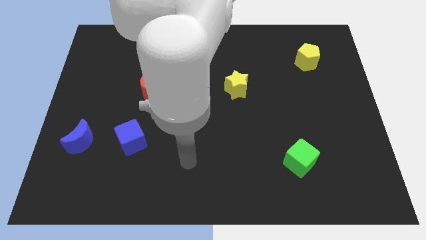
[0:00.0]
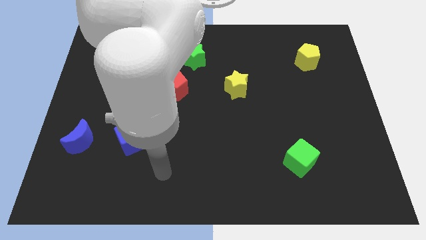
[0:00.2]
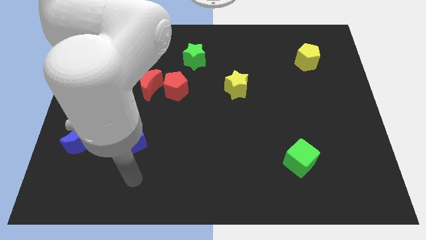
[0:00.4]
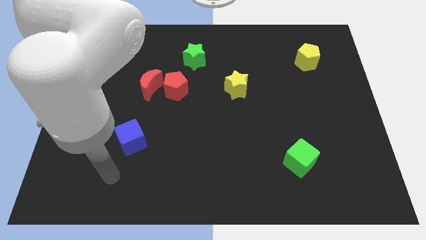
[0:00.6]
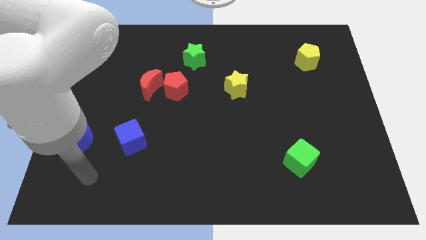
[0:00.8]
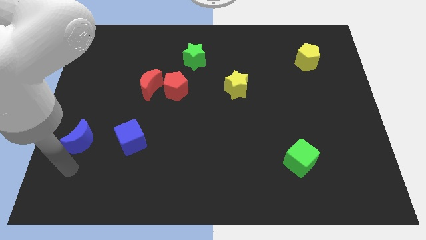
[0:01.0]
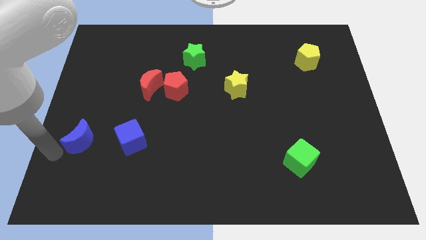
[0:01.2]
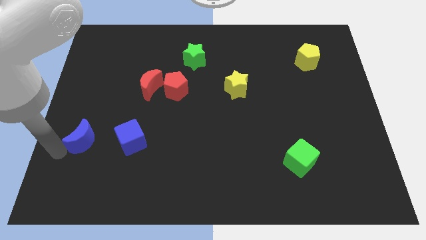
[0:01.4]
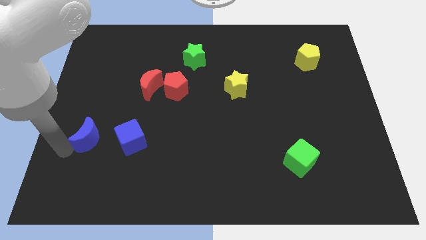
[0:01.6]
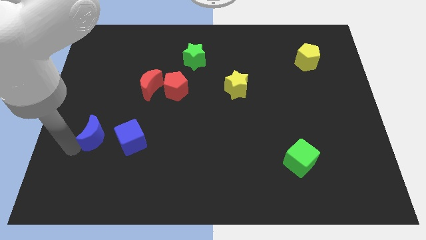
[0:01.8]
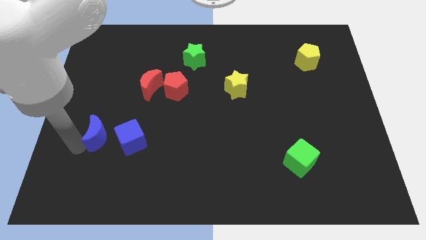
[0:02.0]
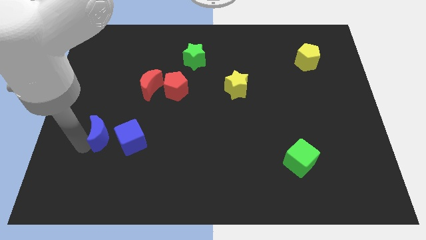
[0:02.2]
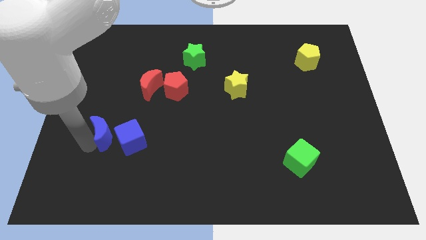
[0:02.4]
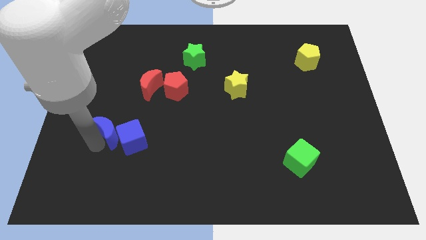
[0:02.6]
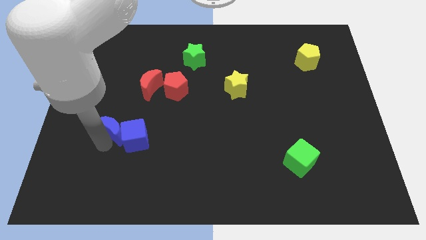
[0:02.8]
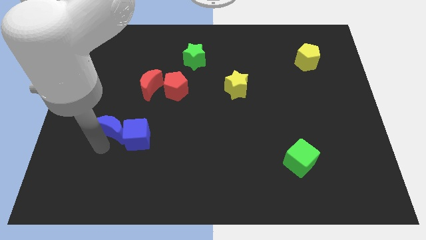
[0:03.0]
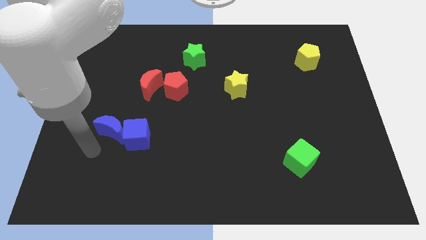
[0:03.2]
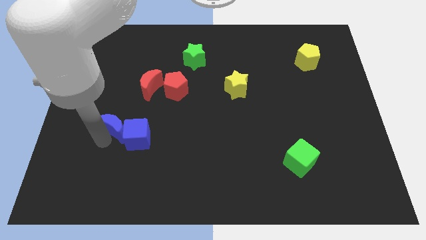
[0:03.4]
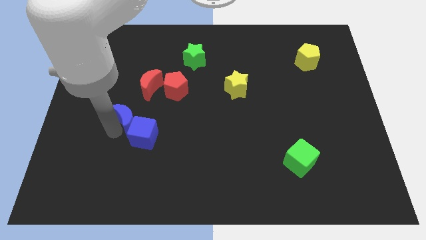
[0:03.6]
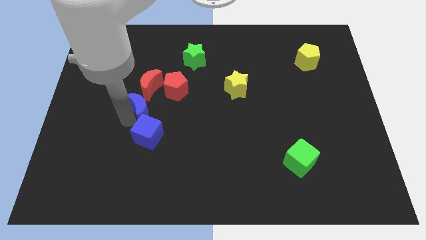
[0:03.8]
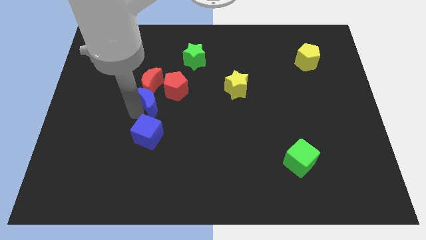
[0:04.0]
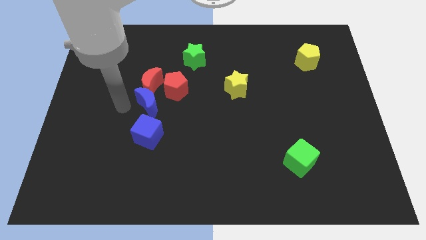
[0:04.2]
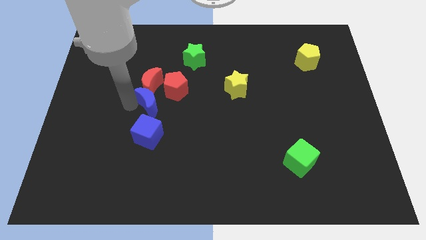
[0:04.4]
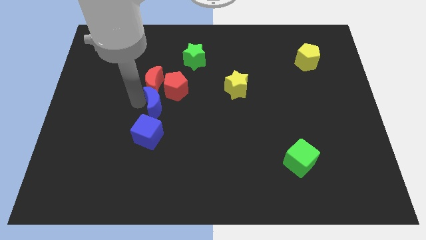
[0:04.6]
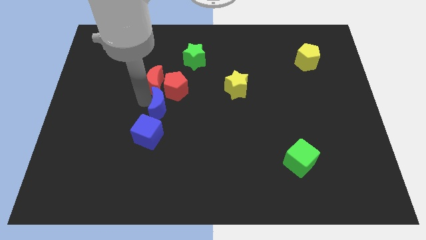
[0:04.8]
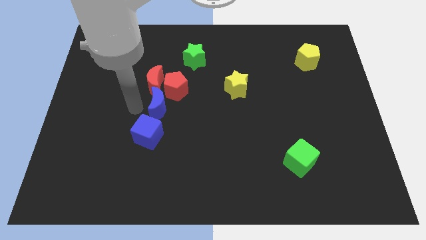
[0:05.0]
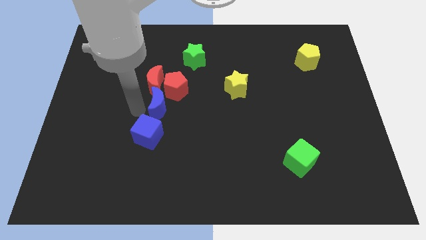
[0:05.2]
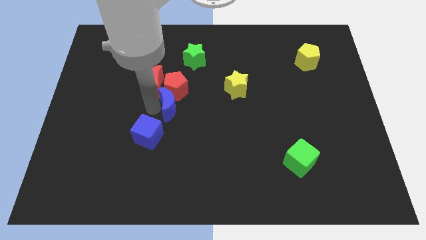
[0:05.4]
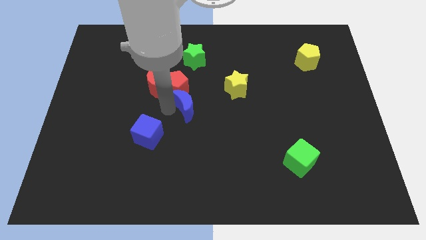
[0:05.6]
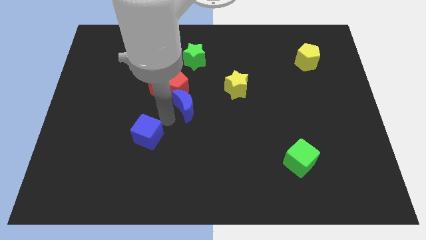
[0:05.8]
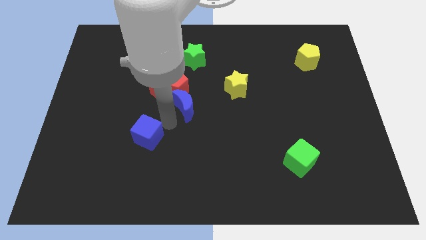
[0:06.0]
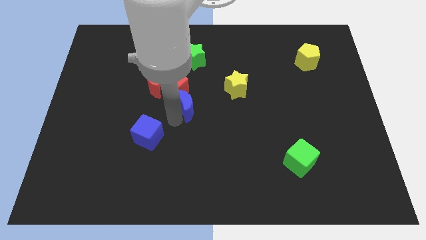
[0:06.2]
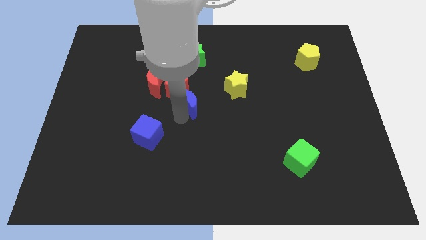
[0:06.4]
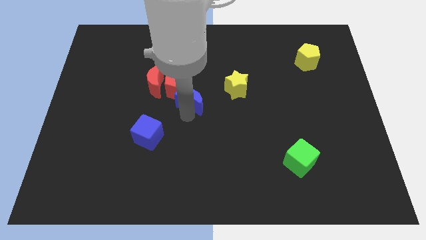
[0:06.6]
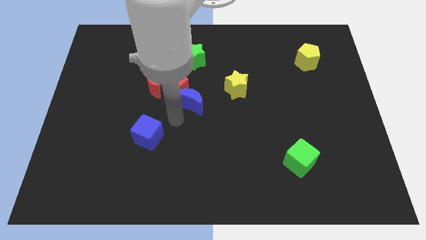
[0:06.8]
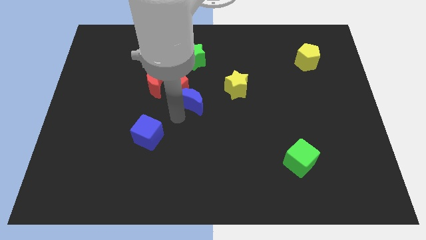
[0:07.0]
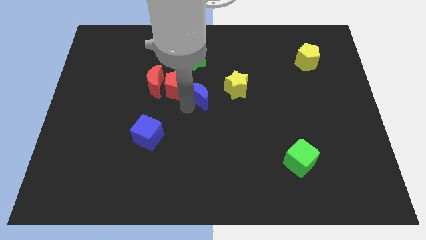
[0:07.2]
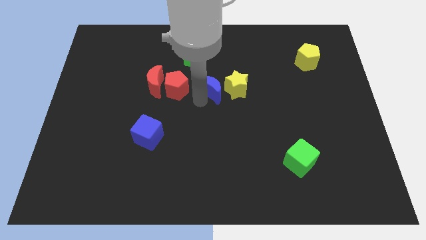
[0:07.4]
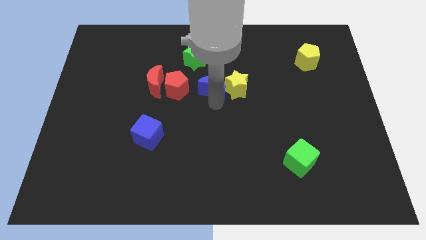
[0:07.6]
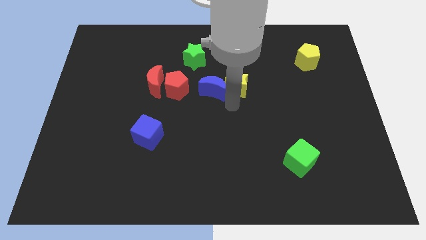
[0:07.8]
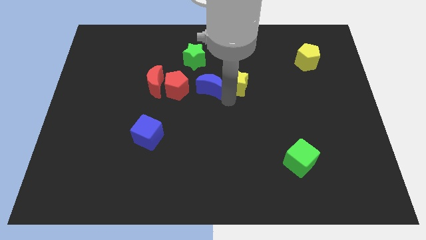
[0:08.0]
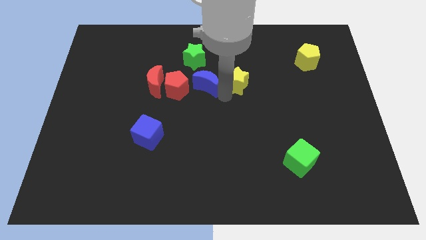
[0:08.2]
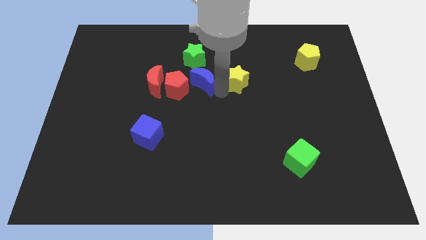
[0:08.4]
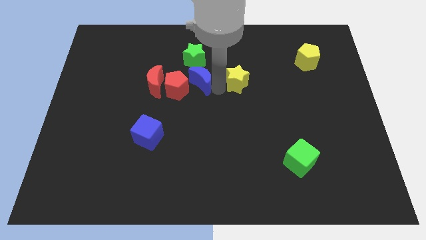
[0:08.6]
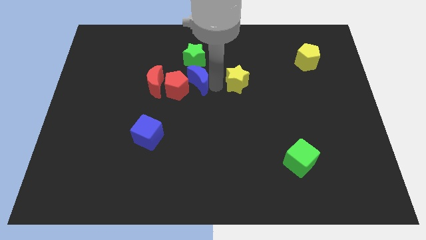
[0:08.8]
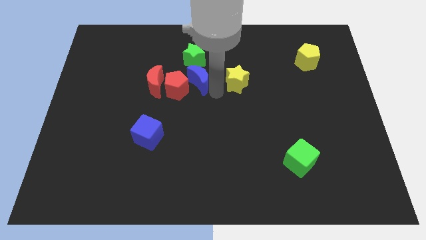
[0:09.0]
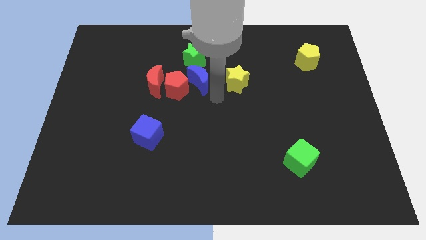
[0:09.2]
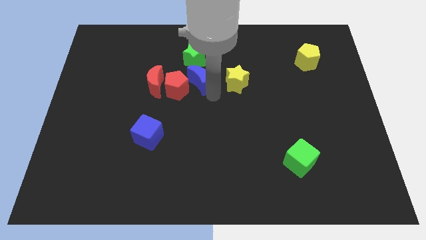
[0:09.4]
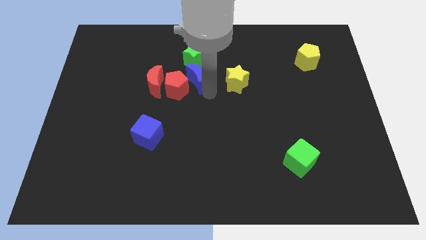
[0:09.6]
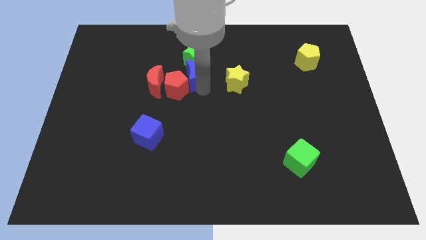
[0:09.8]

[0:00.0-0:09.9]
move the blue moon to the top side of the red pentagon

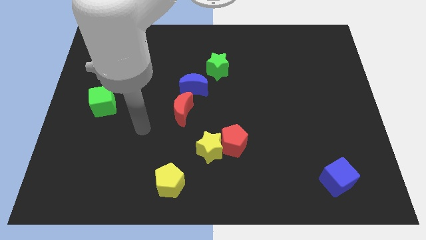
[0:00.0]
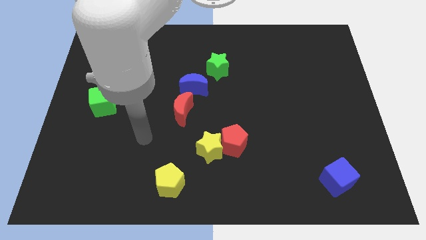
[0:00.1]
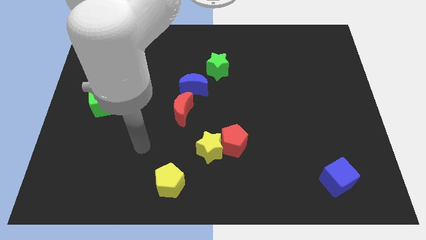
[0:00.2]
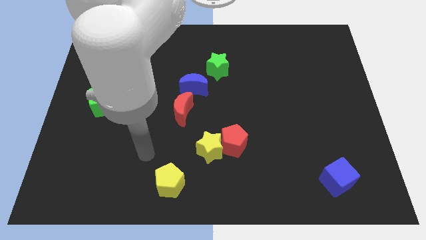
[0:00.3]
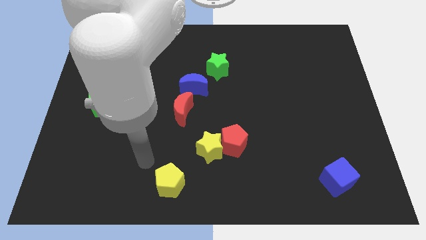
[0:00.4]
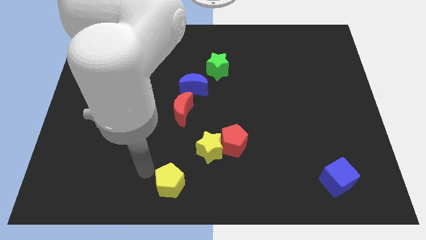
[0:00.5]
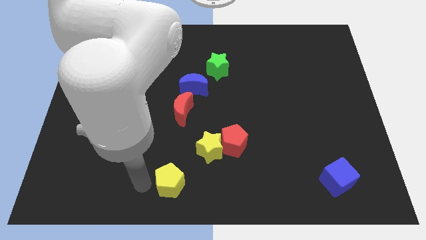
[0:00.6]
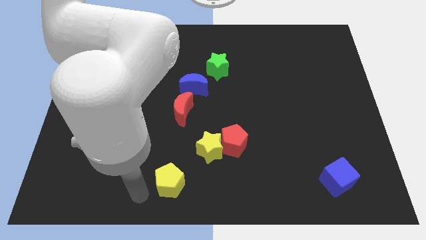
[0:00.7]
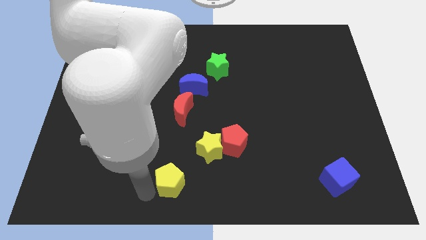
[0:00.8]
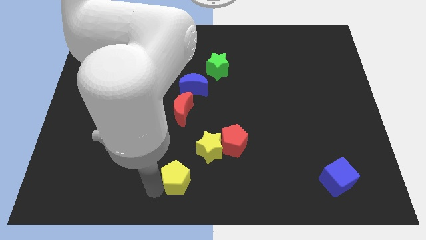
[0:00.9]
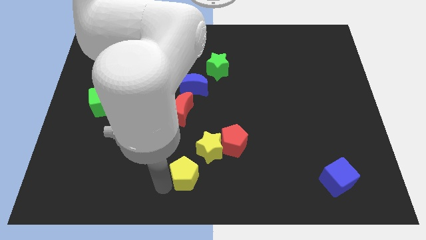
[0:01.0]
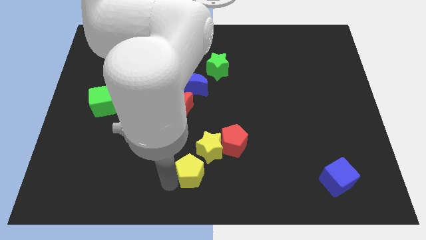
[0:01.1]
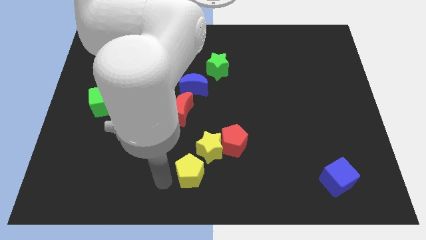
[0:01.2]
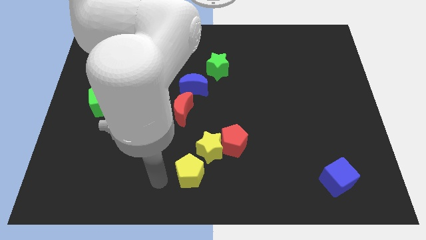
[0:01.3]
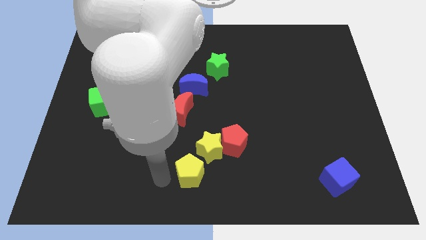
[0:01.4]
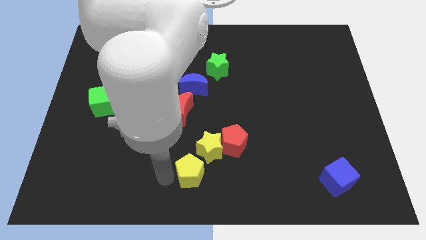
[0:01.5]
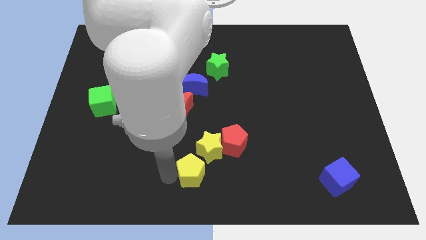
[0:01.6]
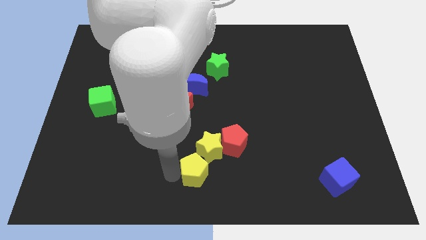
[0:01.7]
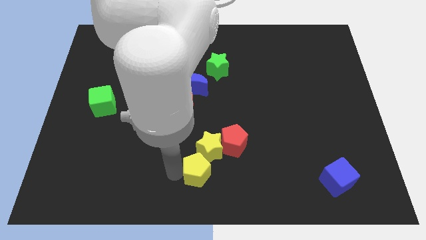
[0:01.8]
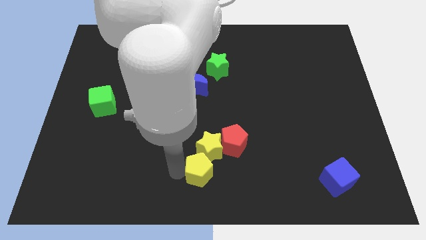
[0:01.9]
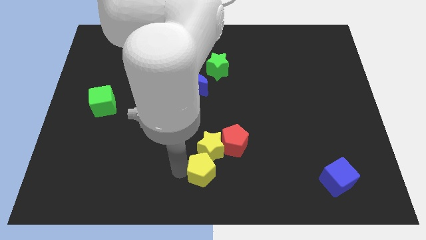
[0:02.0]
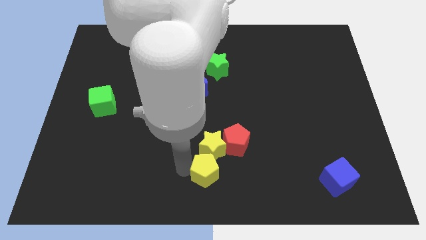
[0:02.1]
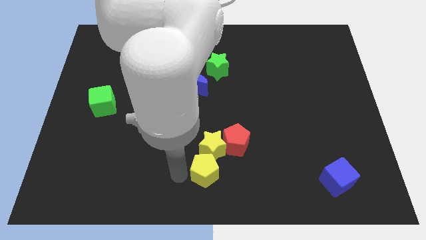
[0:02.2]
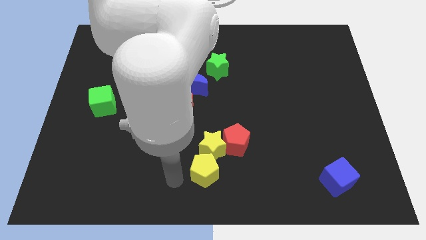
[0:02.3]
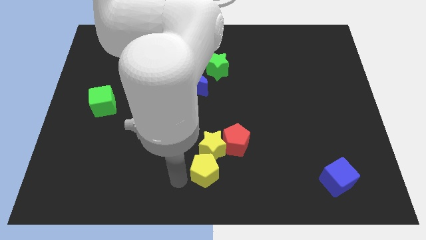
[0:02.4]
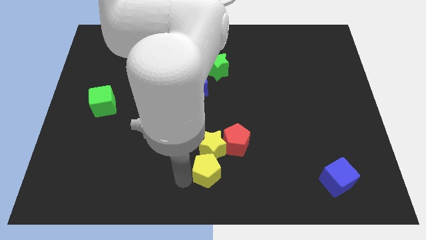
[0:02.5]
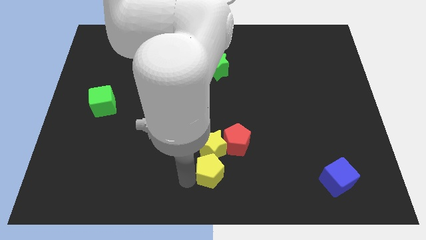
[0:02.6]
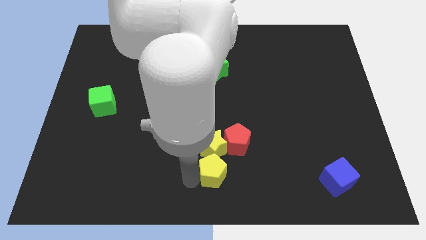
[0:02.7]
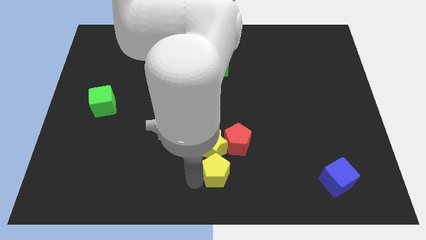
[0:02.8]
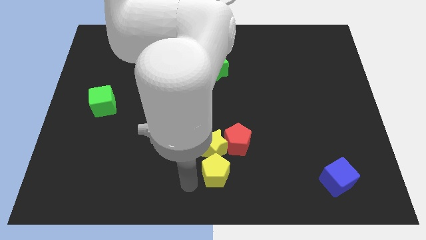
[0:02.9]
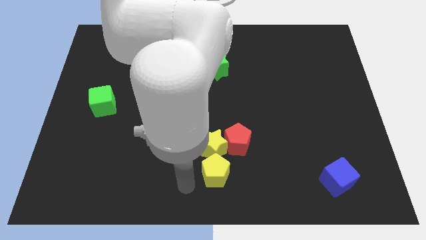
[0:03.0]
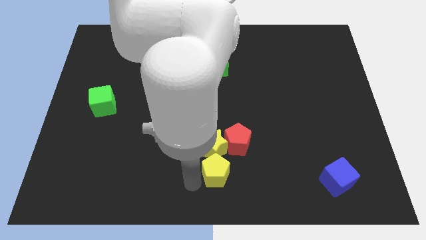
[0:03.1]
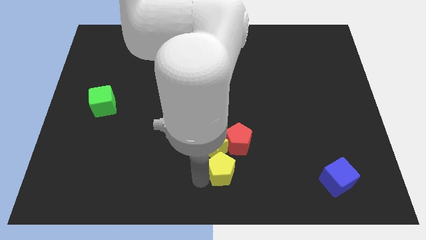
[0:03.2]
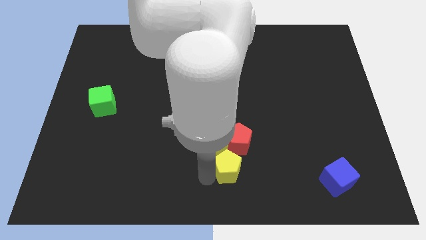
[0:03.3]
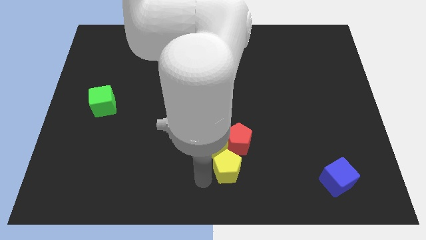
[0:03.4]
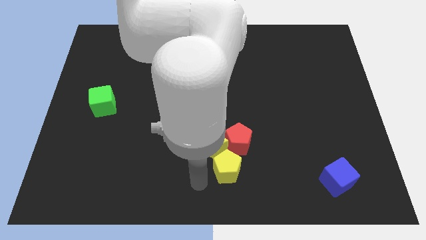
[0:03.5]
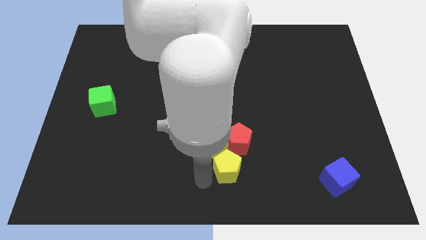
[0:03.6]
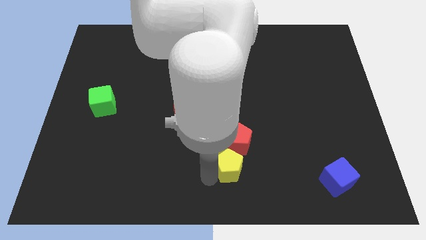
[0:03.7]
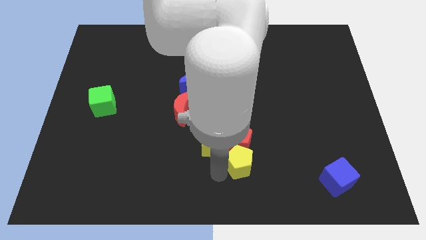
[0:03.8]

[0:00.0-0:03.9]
move the yellow pentagon just right of the yellow star
